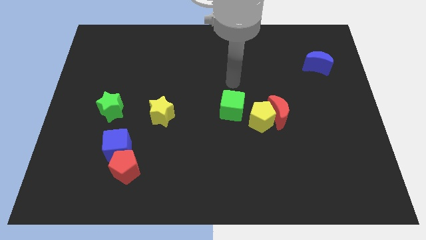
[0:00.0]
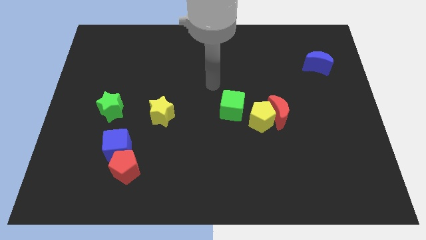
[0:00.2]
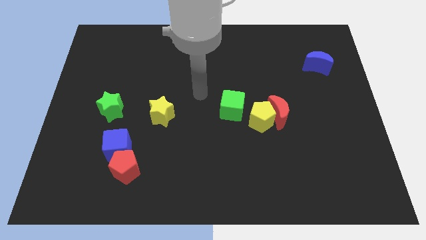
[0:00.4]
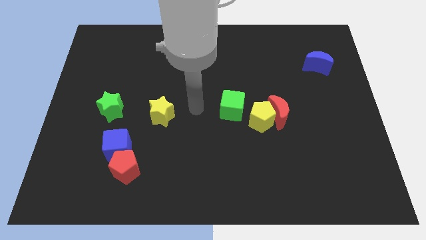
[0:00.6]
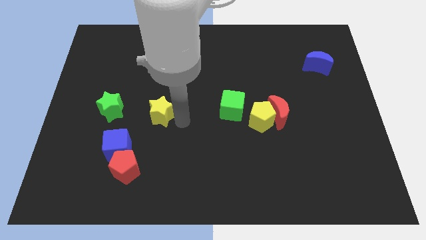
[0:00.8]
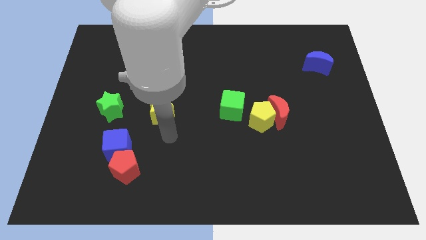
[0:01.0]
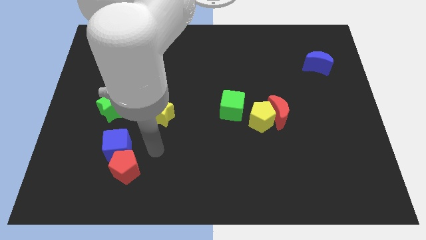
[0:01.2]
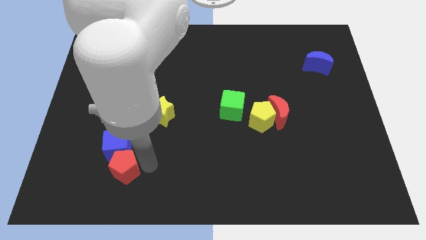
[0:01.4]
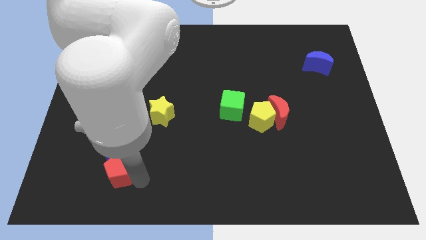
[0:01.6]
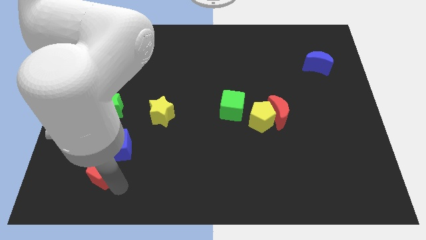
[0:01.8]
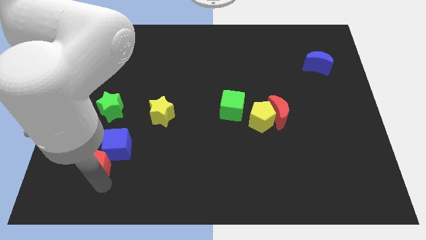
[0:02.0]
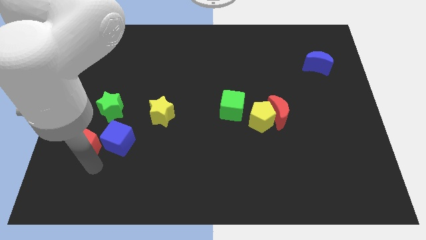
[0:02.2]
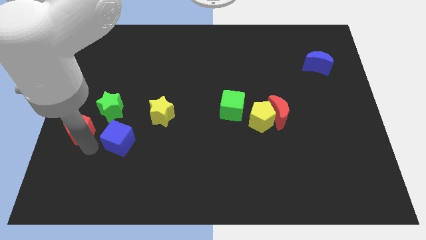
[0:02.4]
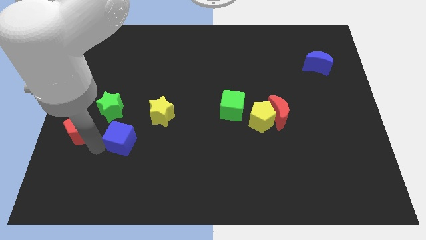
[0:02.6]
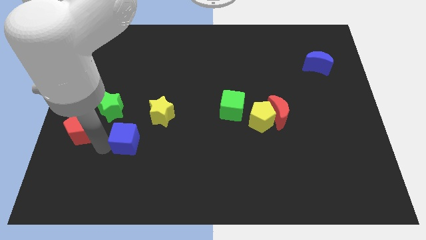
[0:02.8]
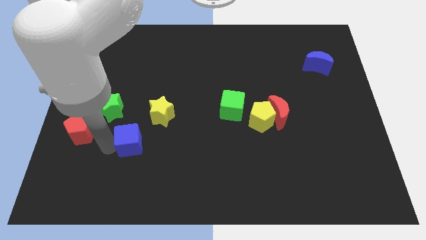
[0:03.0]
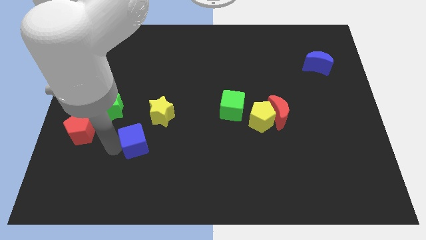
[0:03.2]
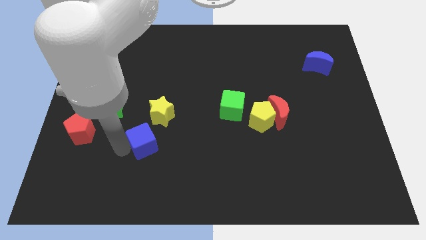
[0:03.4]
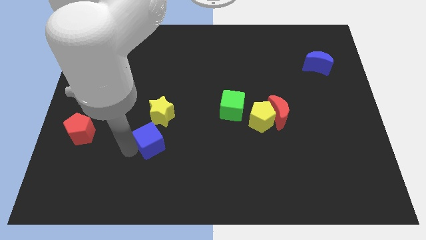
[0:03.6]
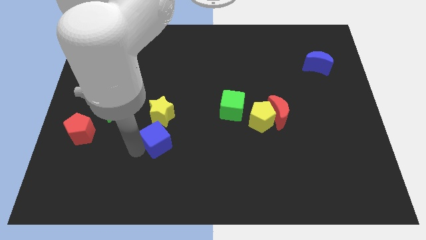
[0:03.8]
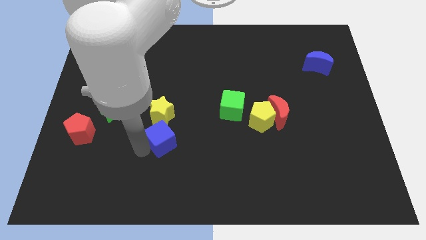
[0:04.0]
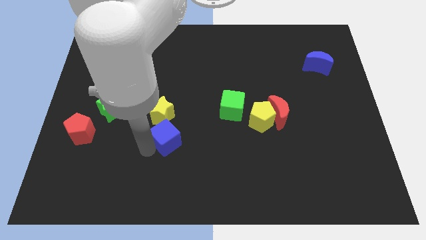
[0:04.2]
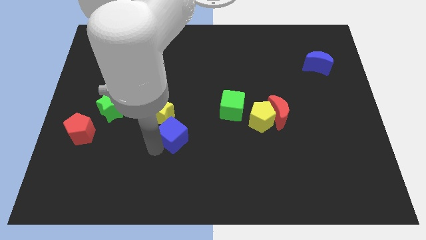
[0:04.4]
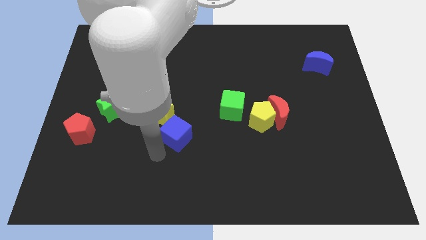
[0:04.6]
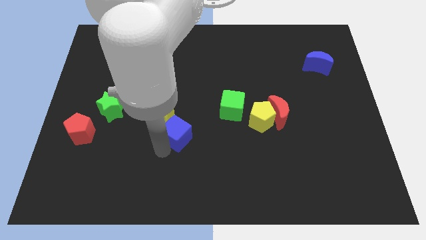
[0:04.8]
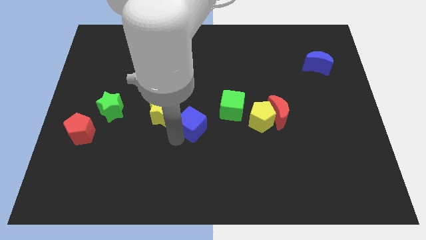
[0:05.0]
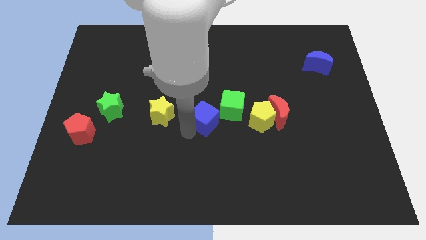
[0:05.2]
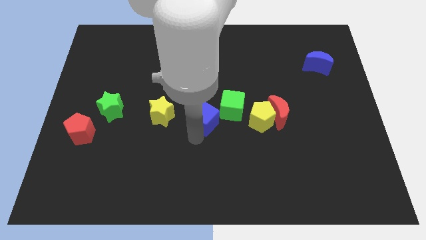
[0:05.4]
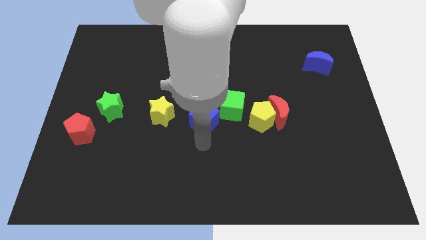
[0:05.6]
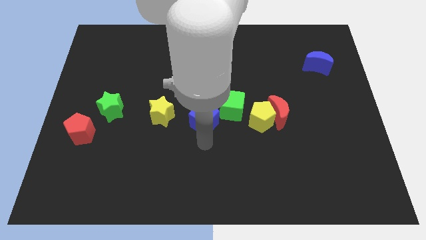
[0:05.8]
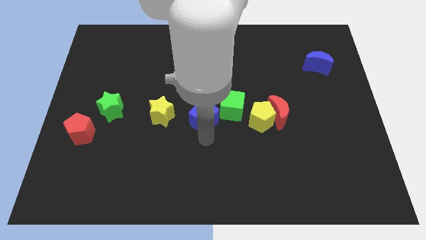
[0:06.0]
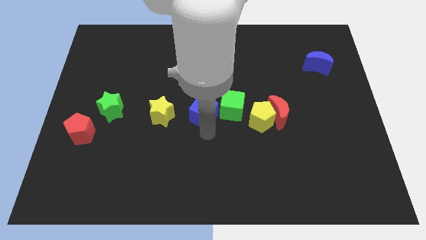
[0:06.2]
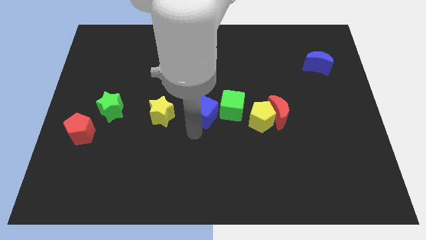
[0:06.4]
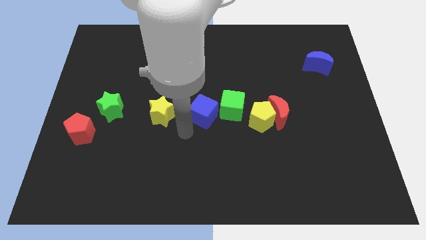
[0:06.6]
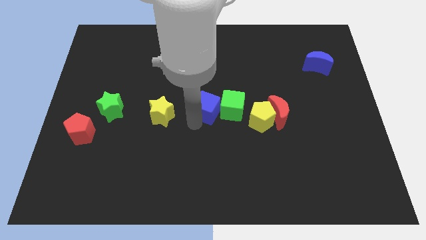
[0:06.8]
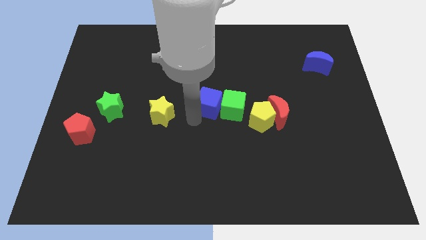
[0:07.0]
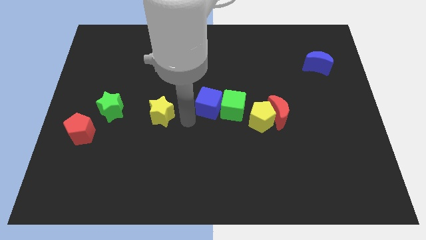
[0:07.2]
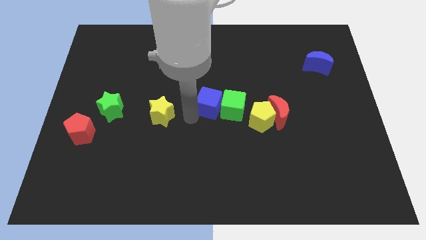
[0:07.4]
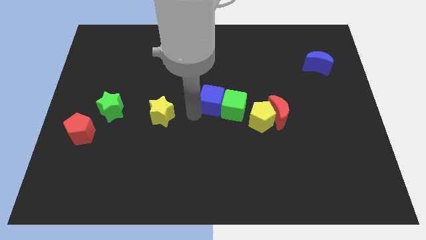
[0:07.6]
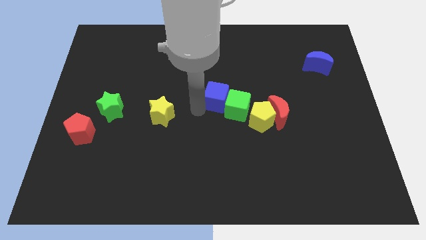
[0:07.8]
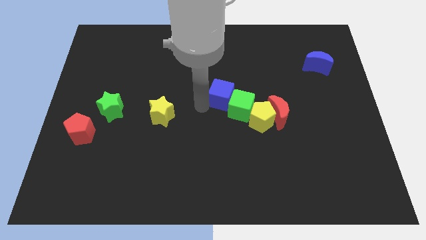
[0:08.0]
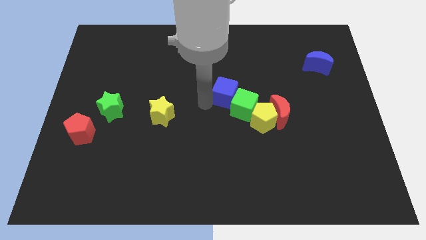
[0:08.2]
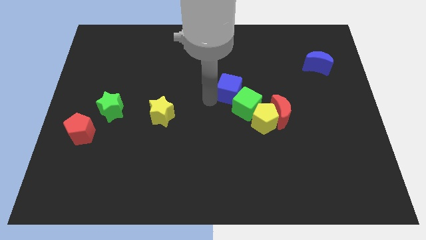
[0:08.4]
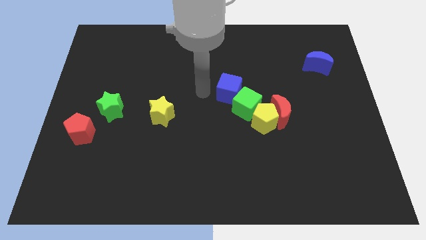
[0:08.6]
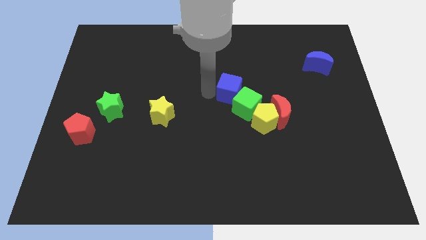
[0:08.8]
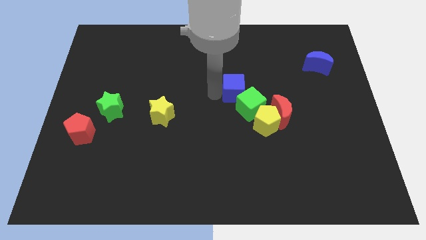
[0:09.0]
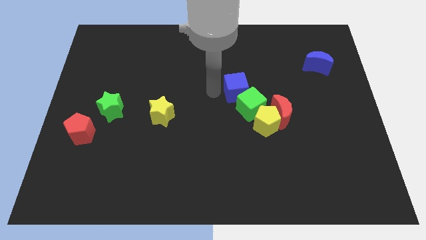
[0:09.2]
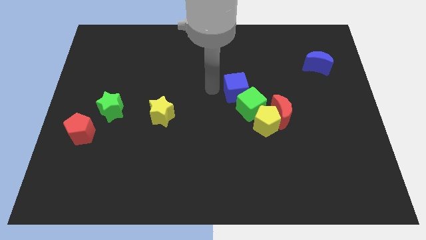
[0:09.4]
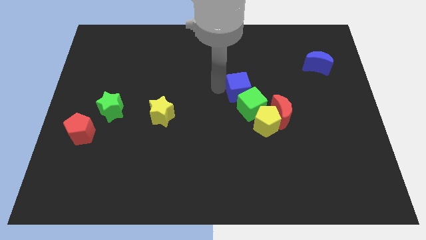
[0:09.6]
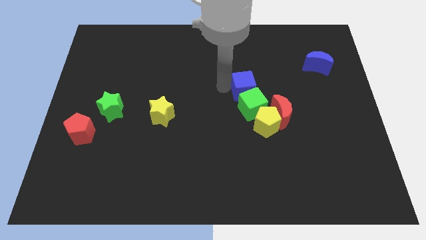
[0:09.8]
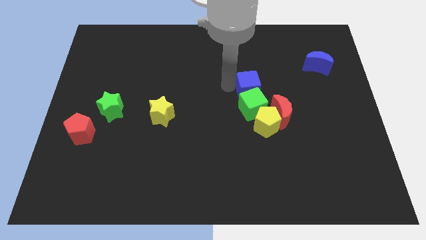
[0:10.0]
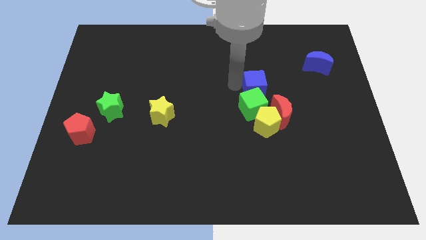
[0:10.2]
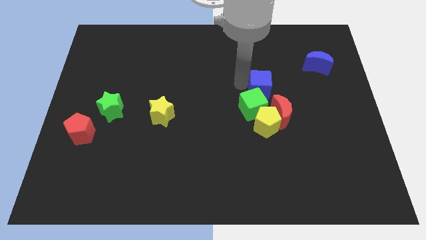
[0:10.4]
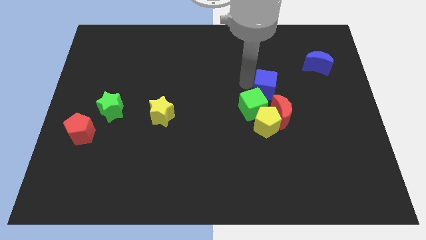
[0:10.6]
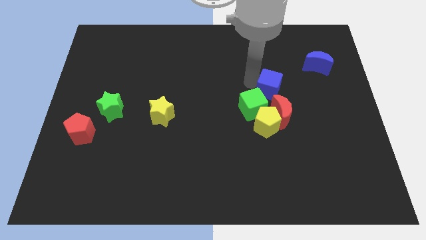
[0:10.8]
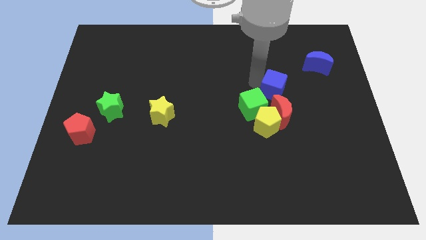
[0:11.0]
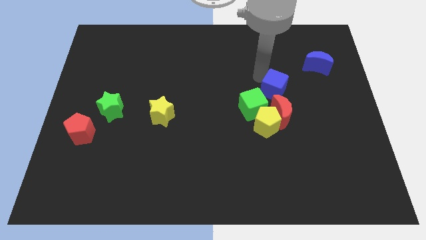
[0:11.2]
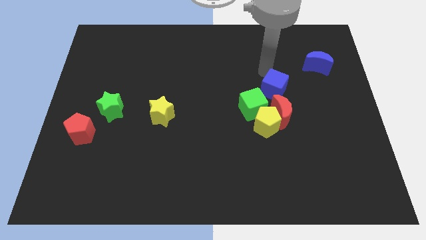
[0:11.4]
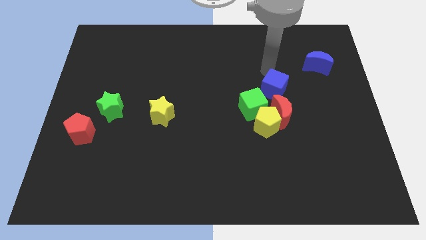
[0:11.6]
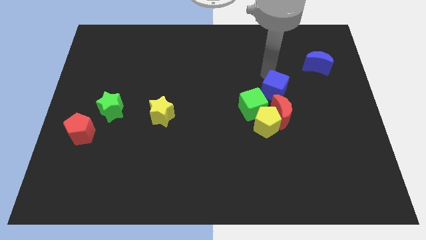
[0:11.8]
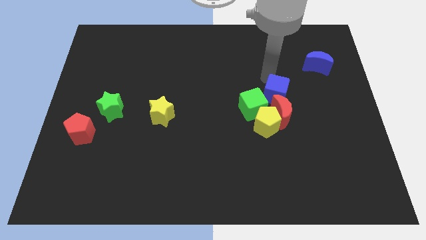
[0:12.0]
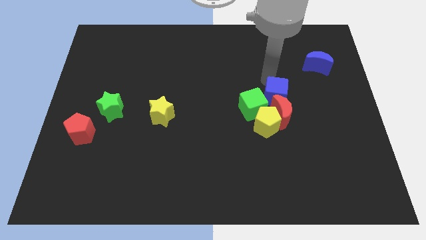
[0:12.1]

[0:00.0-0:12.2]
move the blue cube to the red moon

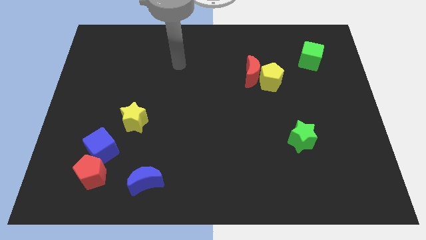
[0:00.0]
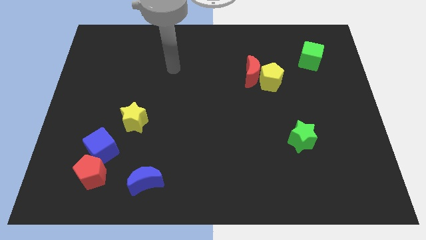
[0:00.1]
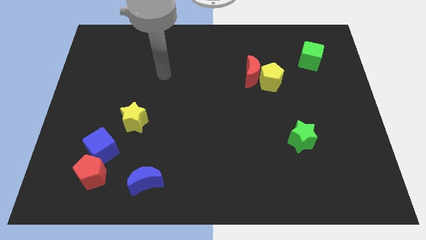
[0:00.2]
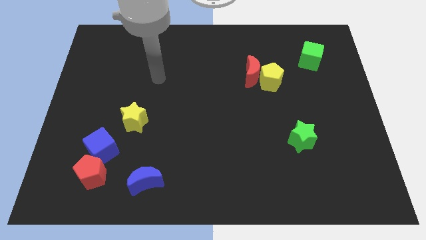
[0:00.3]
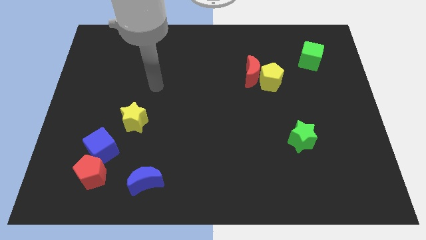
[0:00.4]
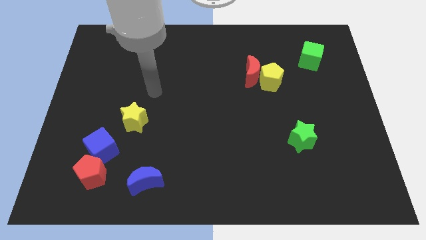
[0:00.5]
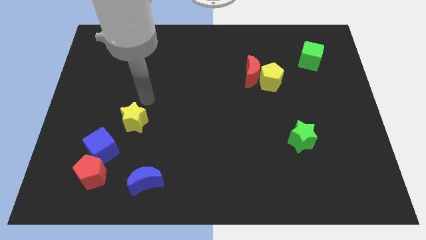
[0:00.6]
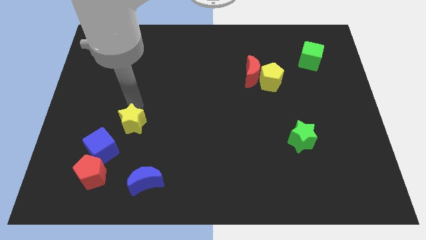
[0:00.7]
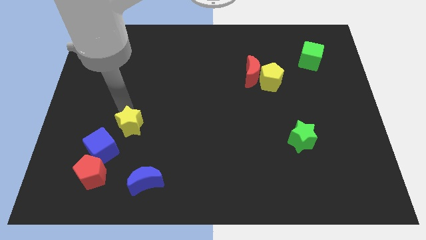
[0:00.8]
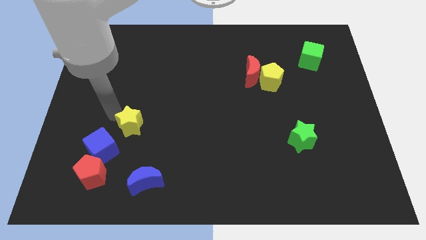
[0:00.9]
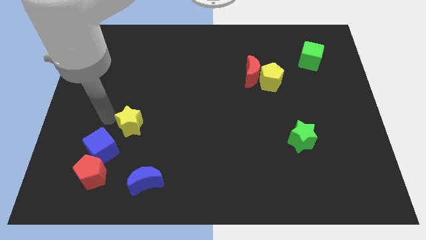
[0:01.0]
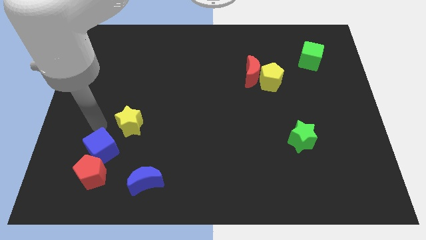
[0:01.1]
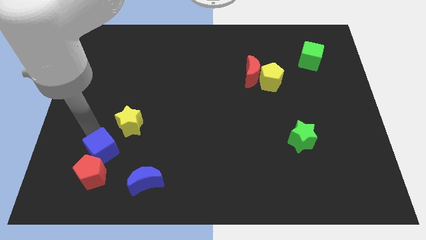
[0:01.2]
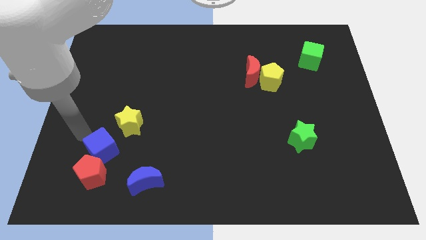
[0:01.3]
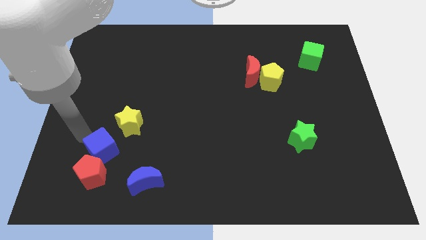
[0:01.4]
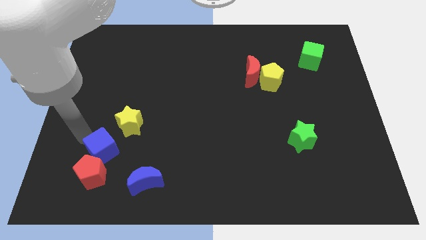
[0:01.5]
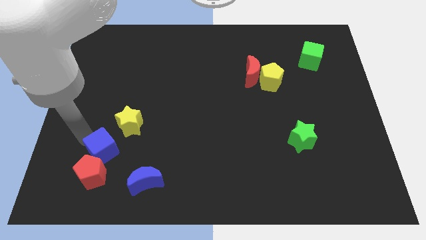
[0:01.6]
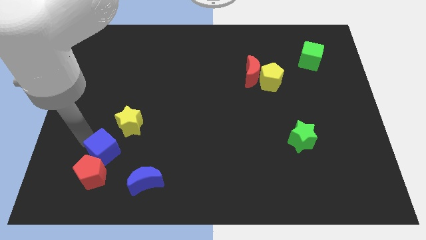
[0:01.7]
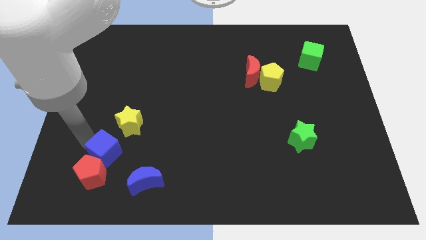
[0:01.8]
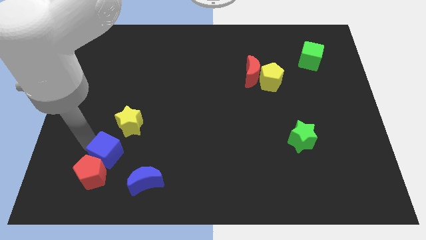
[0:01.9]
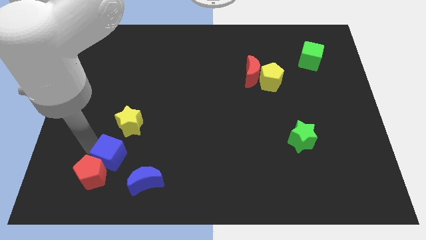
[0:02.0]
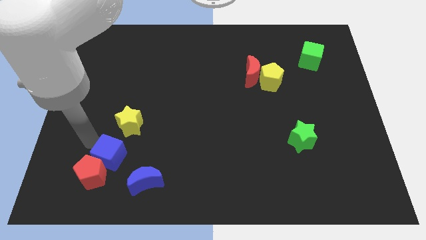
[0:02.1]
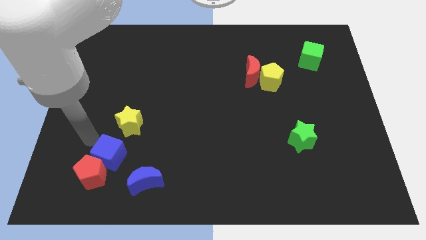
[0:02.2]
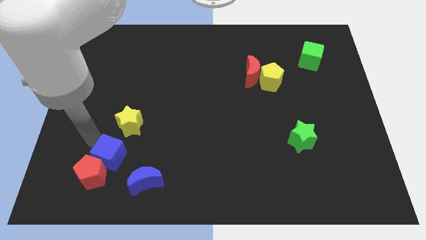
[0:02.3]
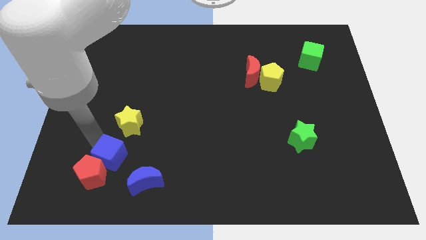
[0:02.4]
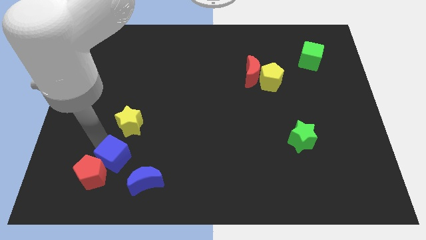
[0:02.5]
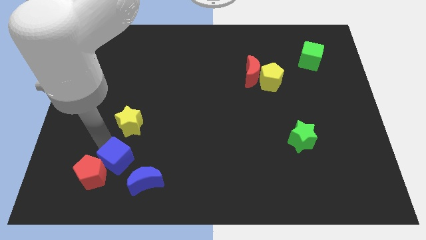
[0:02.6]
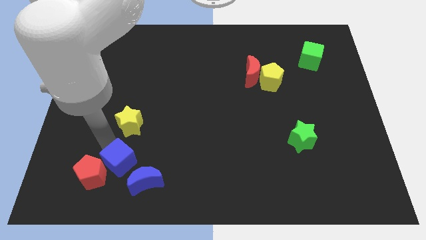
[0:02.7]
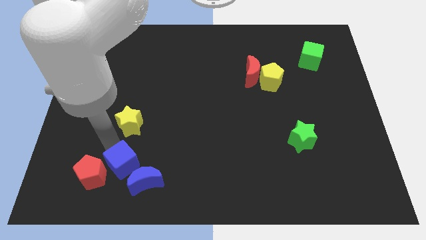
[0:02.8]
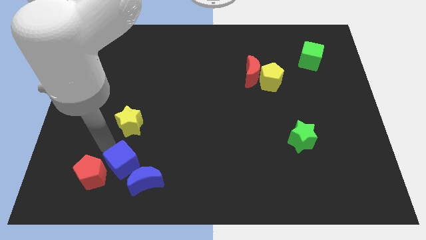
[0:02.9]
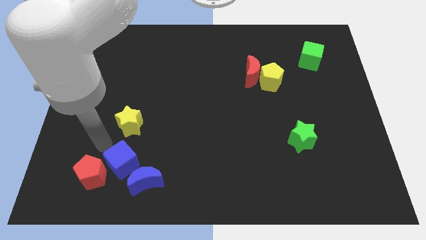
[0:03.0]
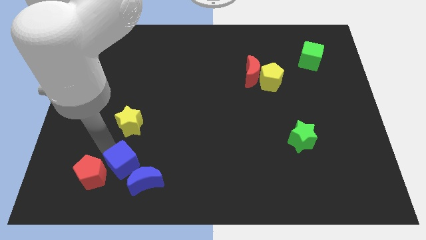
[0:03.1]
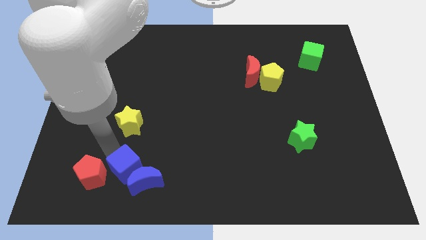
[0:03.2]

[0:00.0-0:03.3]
move the blue cube to the blue moon
